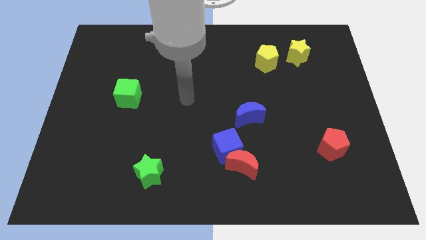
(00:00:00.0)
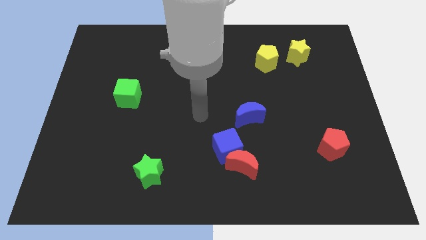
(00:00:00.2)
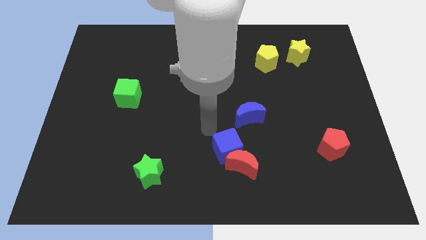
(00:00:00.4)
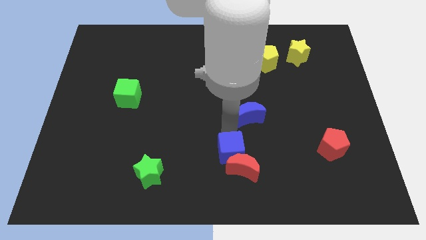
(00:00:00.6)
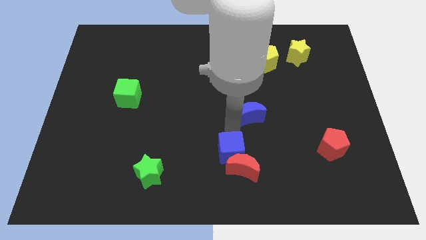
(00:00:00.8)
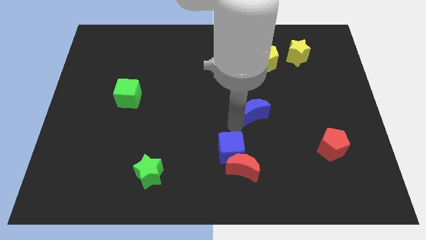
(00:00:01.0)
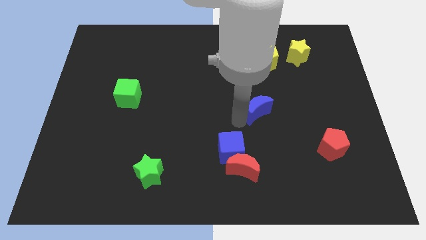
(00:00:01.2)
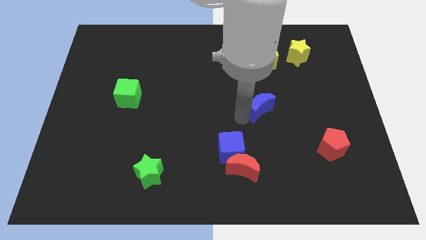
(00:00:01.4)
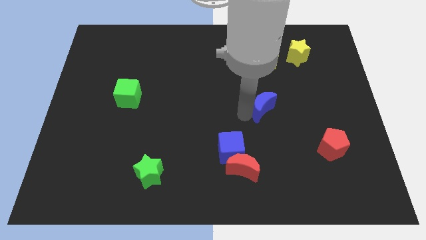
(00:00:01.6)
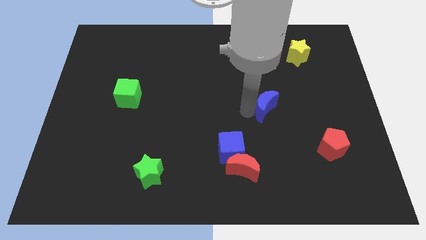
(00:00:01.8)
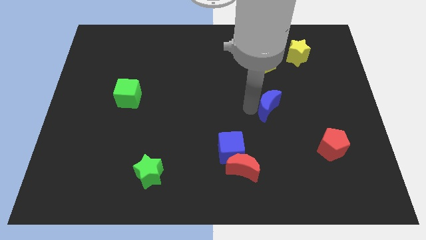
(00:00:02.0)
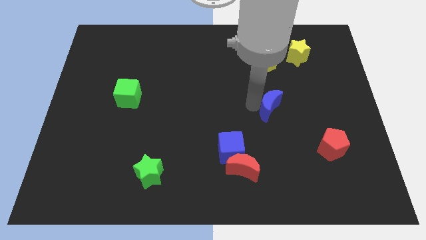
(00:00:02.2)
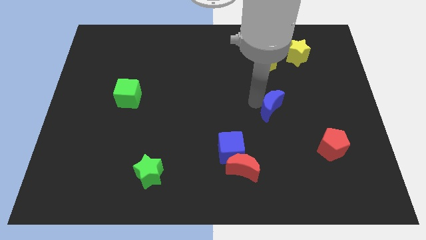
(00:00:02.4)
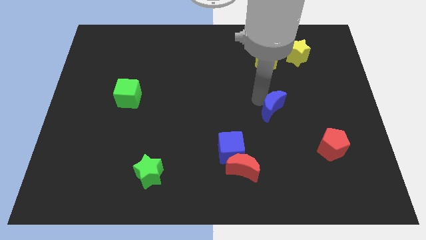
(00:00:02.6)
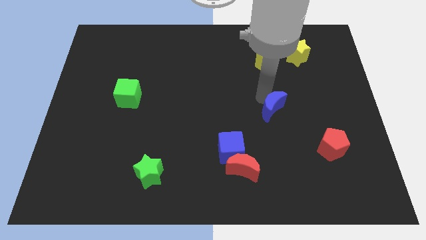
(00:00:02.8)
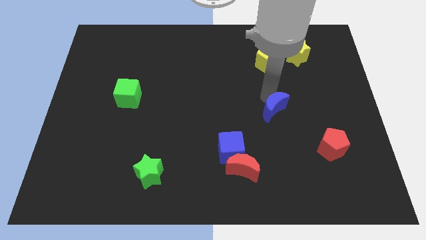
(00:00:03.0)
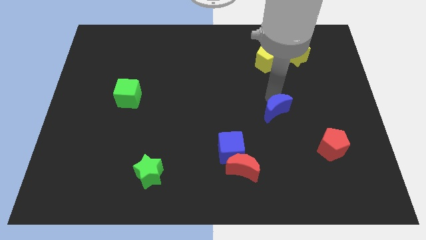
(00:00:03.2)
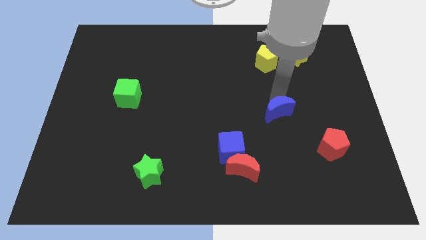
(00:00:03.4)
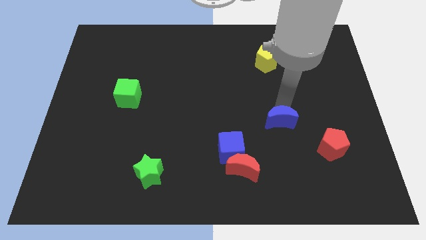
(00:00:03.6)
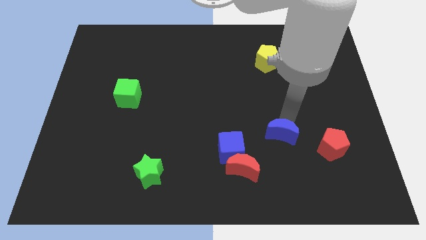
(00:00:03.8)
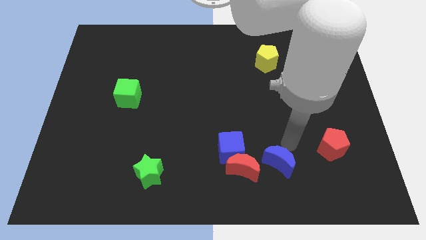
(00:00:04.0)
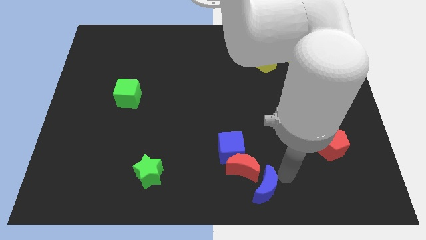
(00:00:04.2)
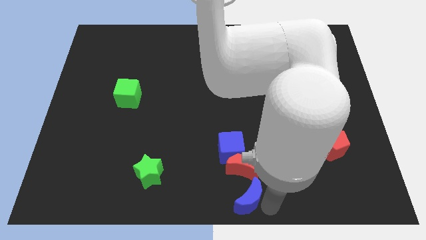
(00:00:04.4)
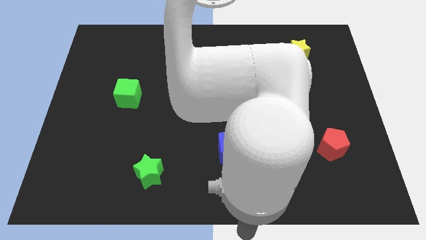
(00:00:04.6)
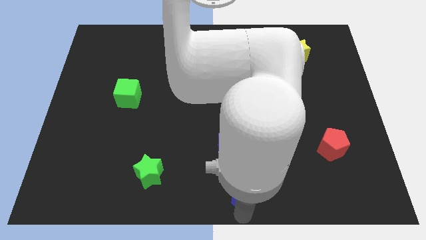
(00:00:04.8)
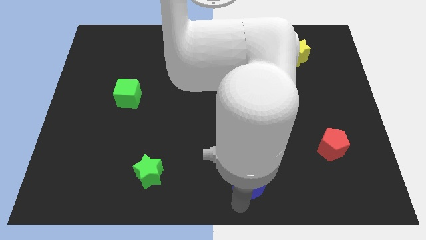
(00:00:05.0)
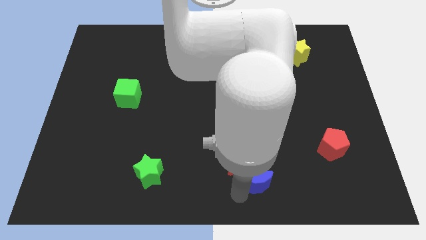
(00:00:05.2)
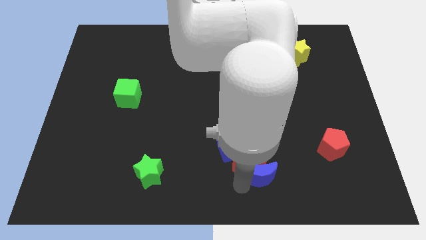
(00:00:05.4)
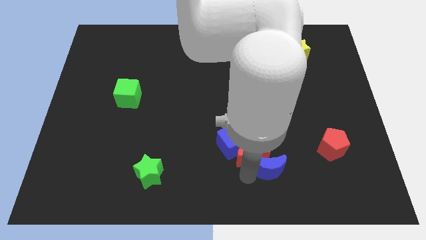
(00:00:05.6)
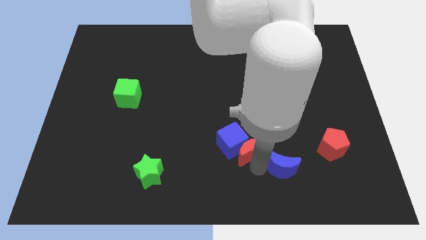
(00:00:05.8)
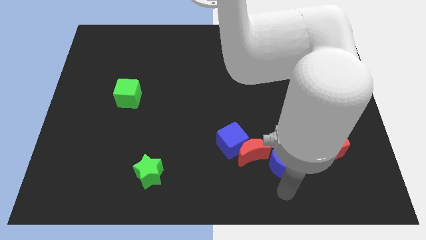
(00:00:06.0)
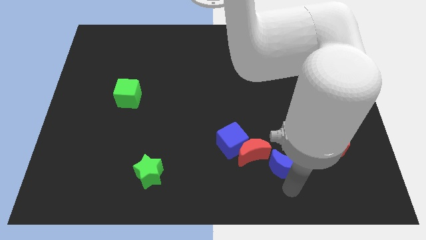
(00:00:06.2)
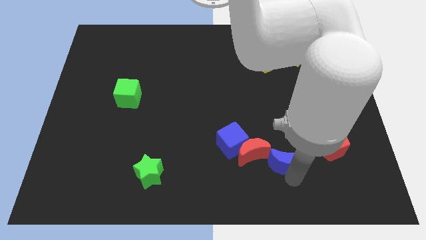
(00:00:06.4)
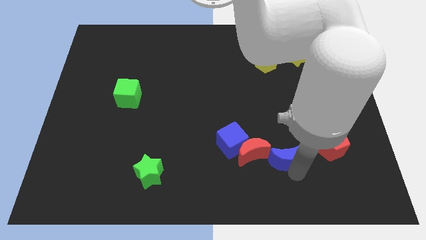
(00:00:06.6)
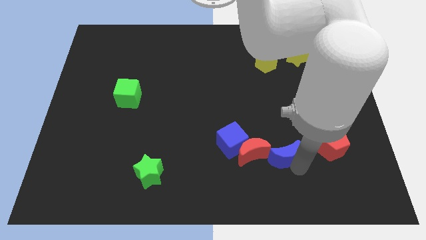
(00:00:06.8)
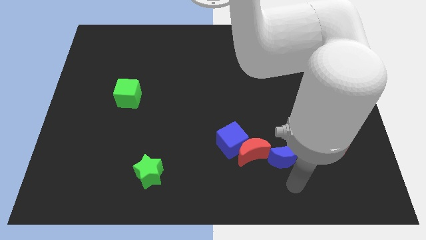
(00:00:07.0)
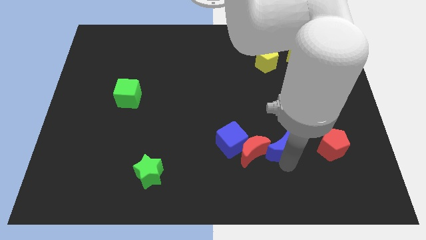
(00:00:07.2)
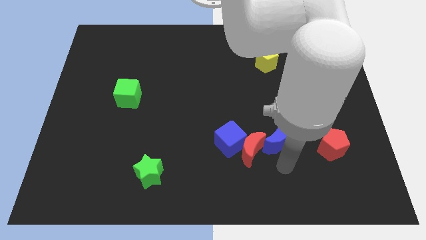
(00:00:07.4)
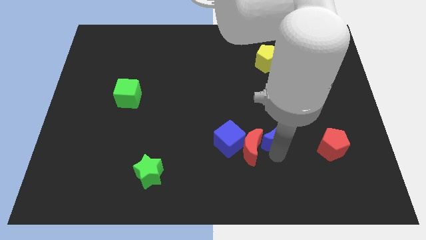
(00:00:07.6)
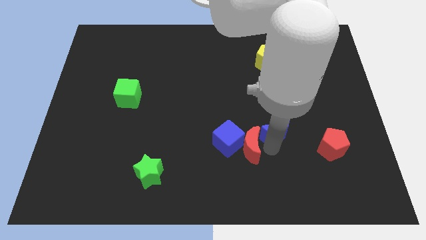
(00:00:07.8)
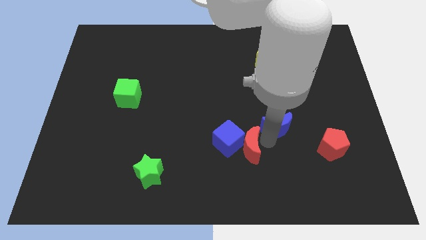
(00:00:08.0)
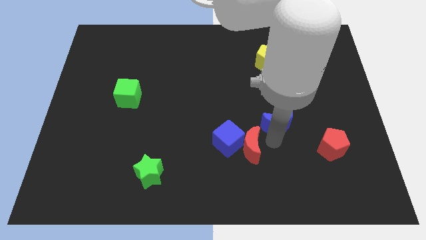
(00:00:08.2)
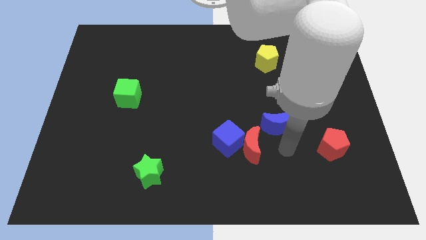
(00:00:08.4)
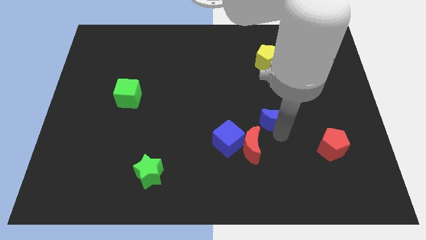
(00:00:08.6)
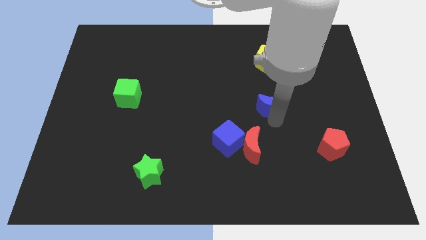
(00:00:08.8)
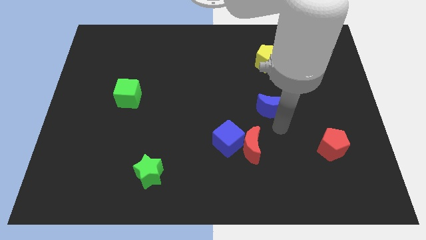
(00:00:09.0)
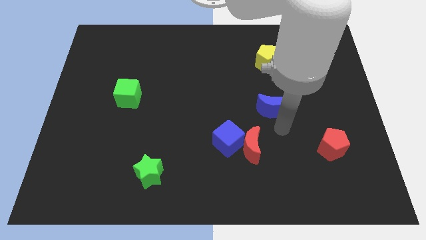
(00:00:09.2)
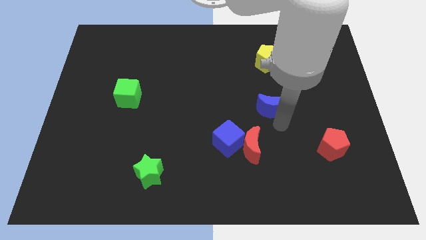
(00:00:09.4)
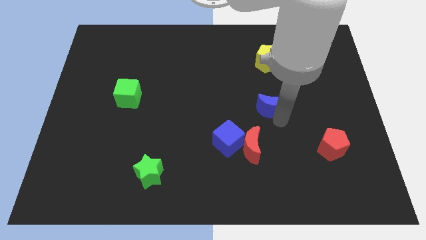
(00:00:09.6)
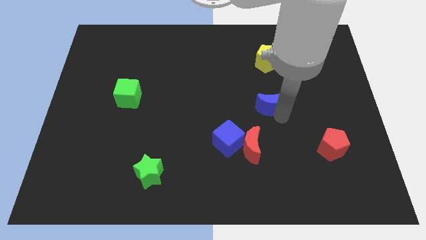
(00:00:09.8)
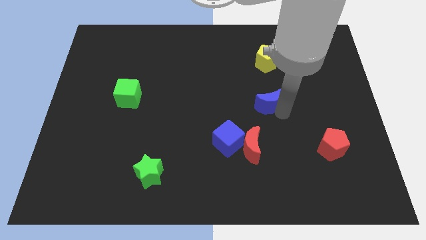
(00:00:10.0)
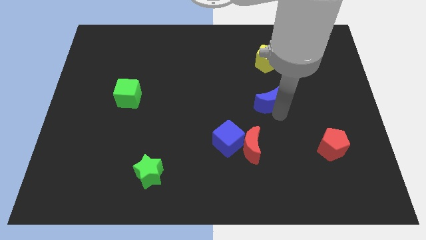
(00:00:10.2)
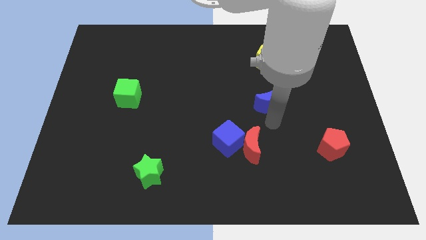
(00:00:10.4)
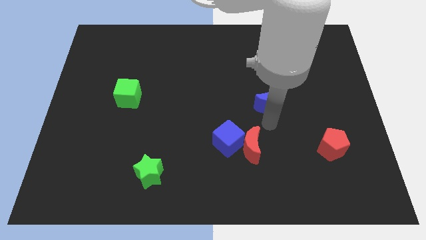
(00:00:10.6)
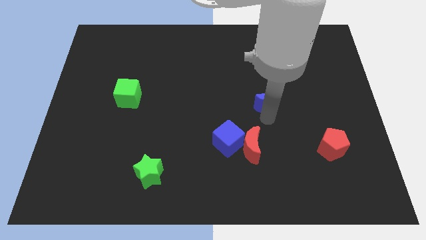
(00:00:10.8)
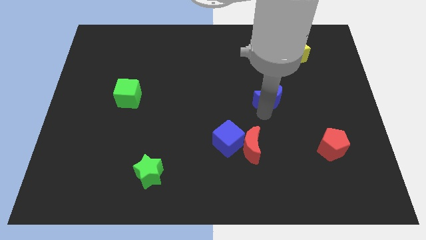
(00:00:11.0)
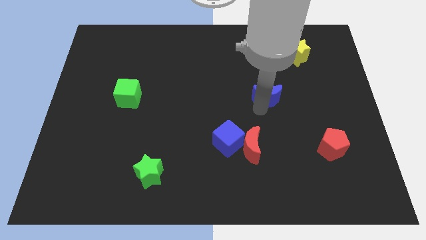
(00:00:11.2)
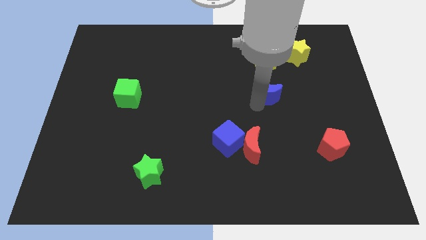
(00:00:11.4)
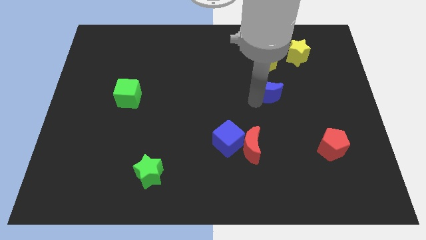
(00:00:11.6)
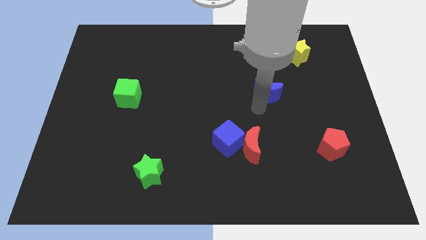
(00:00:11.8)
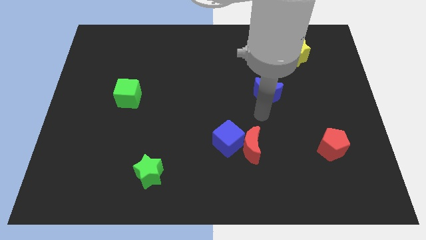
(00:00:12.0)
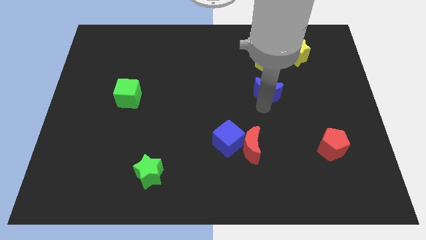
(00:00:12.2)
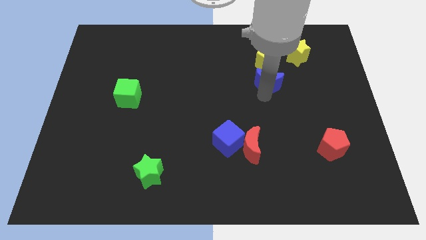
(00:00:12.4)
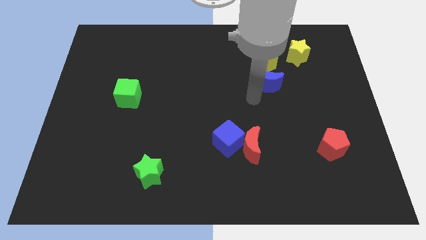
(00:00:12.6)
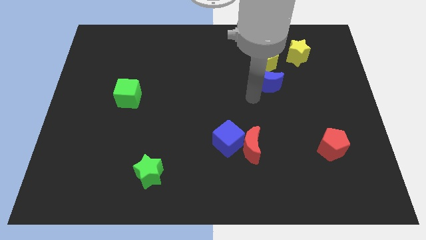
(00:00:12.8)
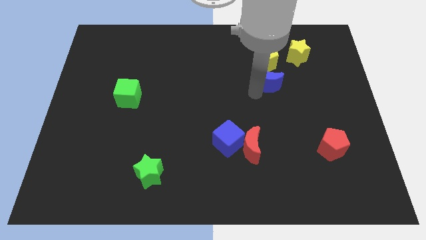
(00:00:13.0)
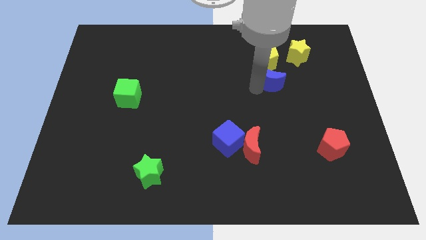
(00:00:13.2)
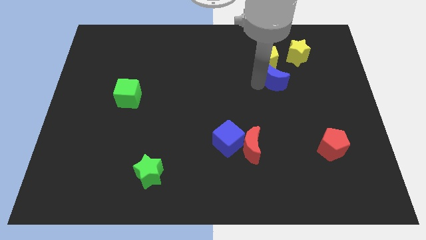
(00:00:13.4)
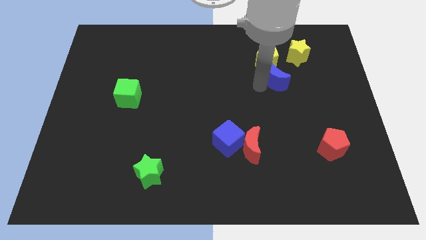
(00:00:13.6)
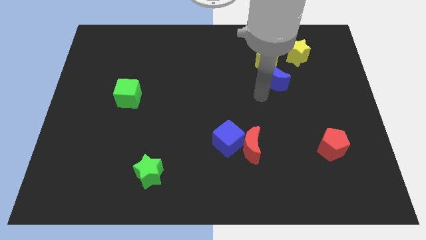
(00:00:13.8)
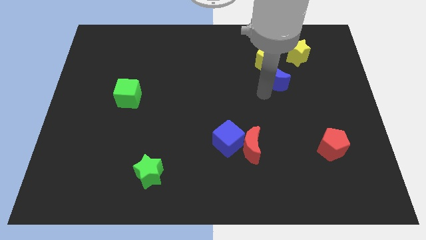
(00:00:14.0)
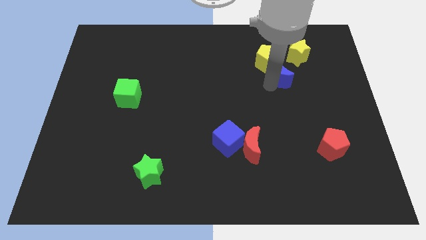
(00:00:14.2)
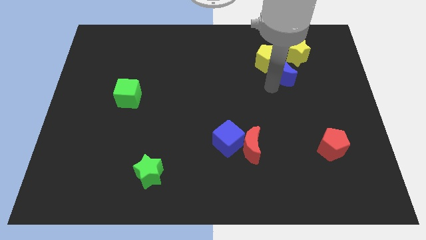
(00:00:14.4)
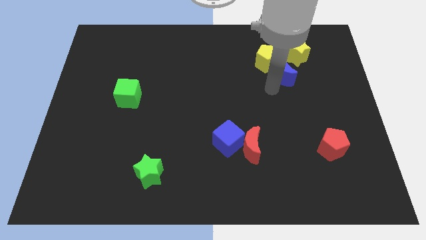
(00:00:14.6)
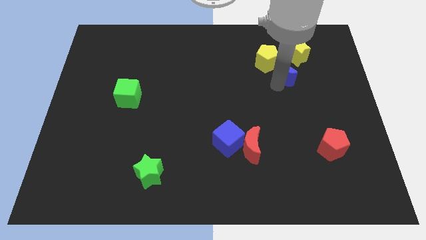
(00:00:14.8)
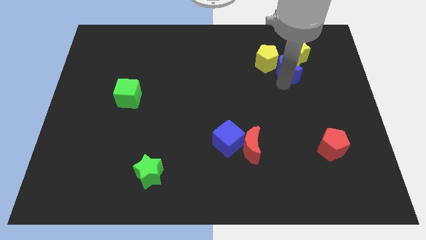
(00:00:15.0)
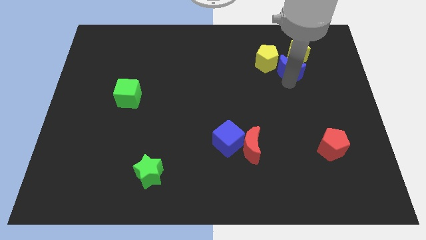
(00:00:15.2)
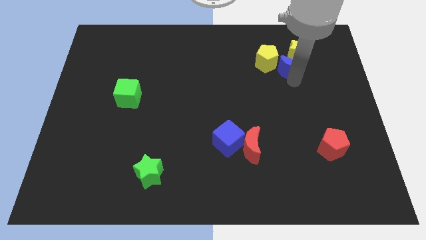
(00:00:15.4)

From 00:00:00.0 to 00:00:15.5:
put the blue moon to the yellow star
